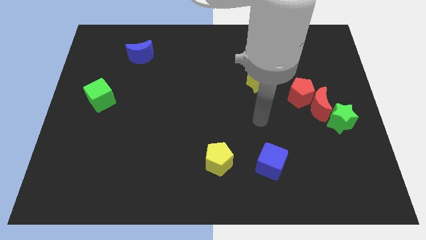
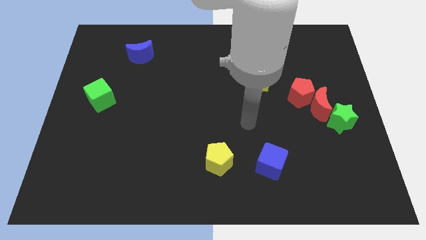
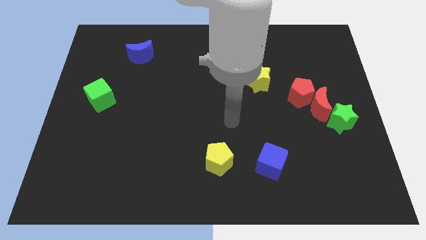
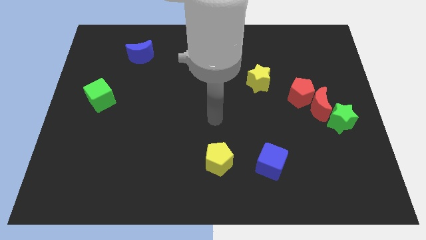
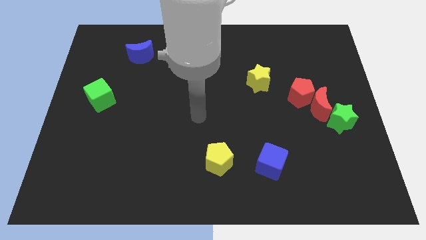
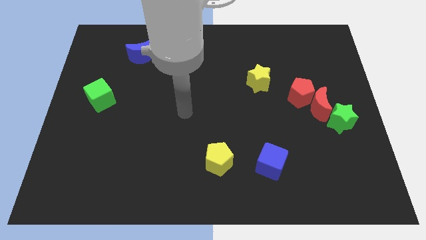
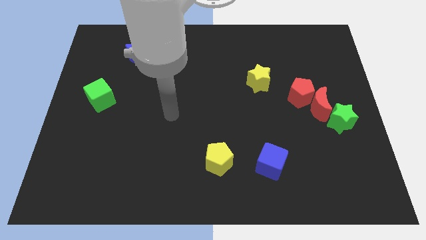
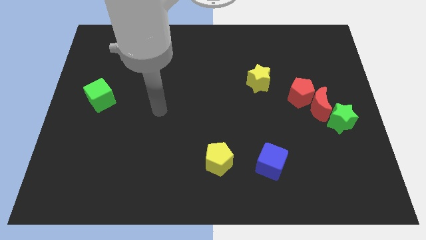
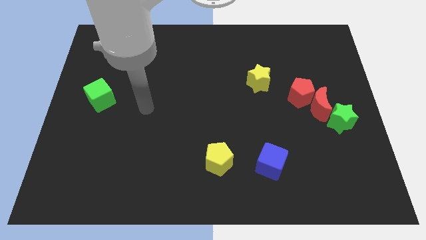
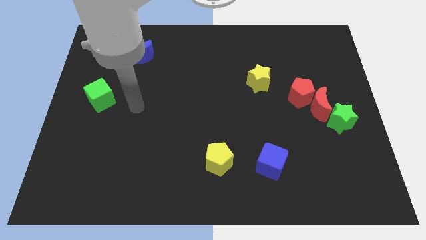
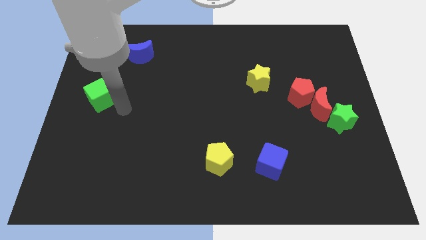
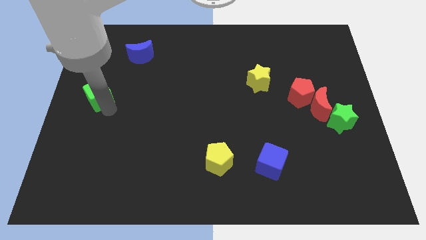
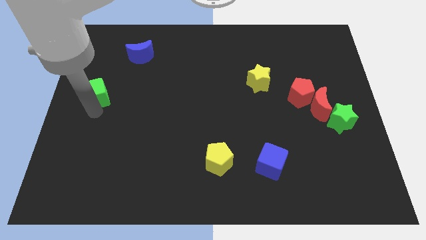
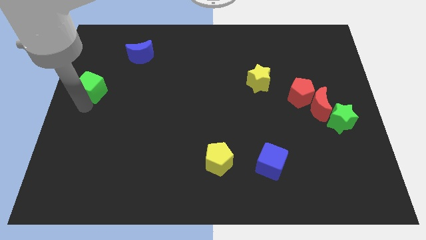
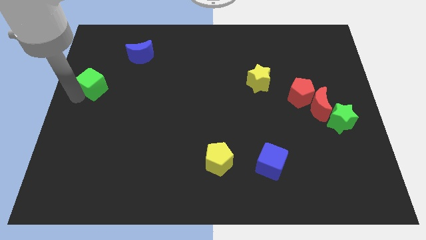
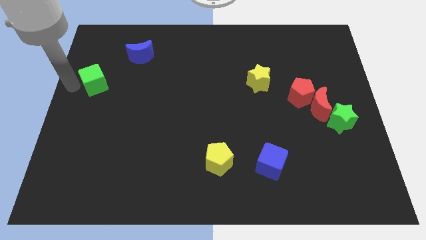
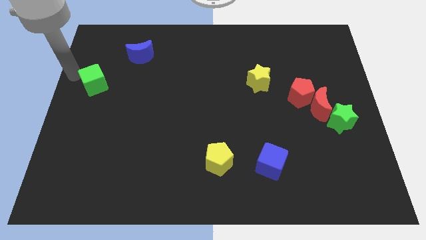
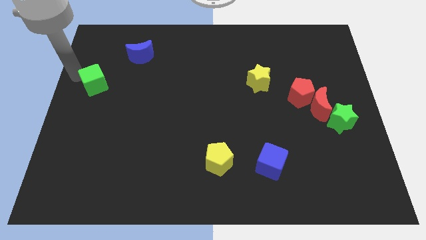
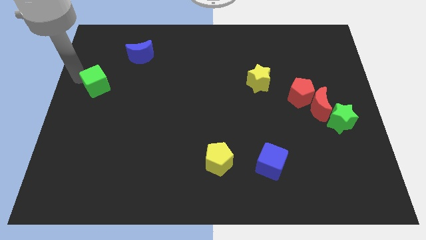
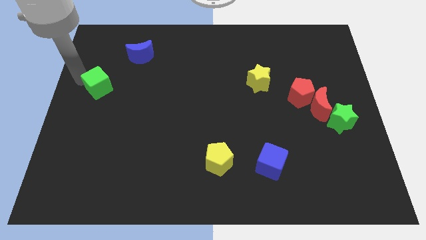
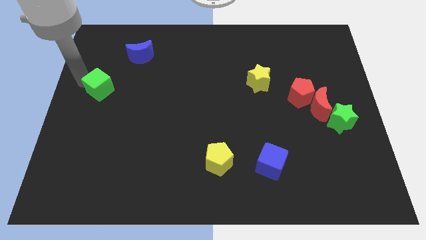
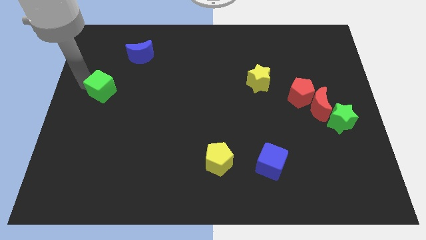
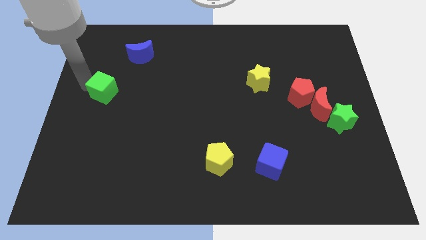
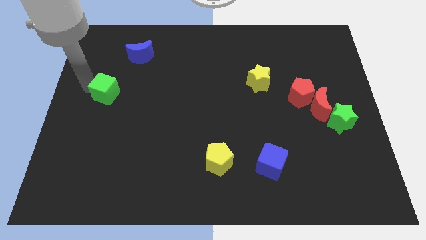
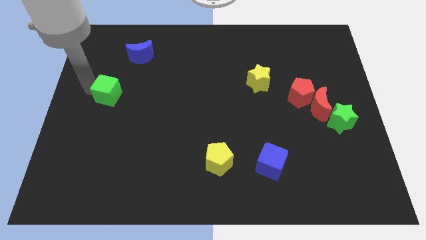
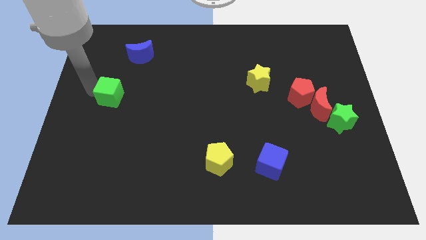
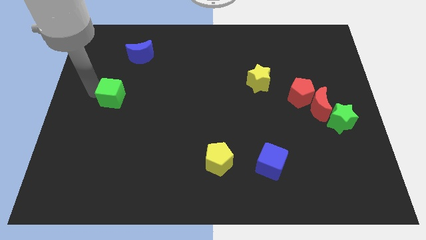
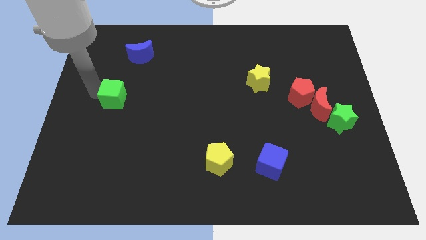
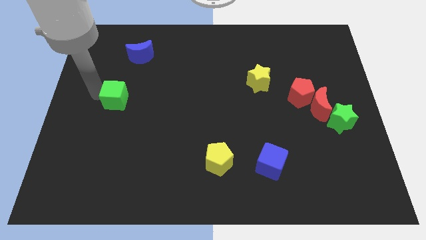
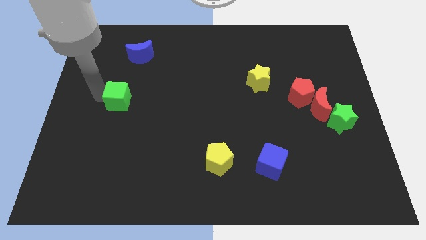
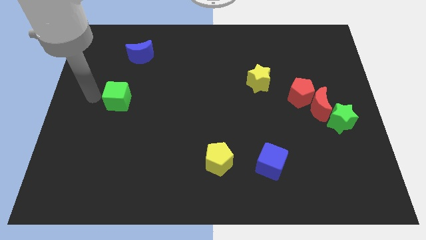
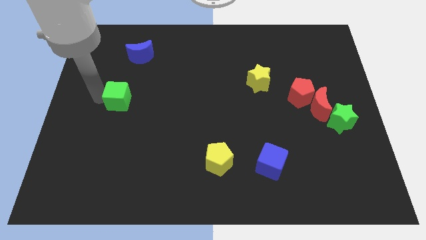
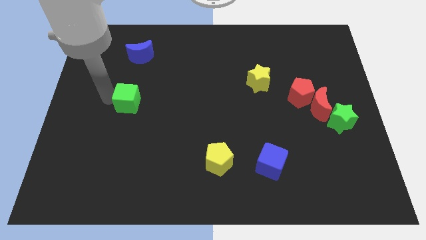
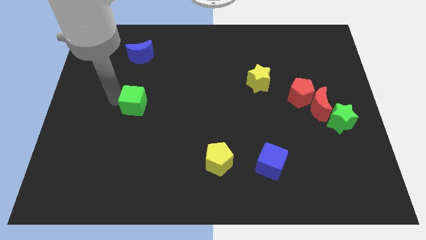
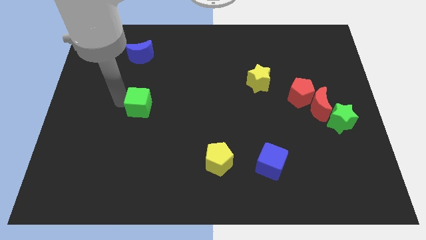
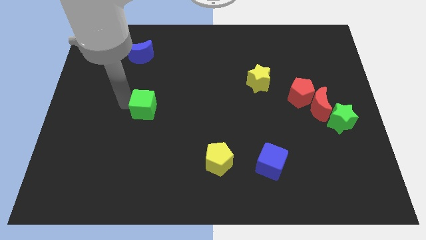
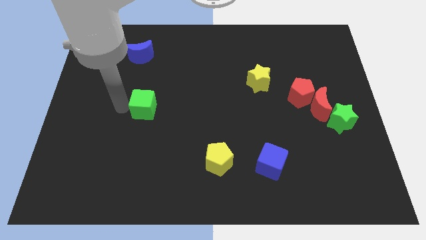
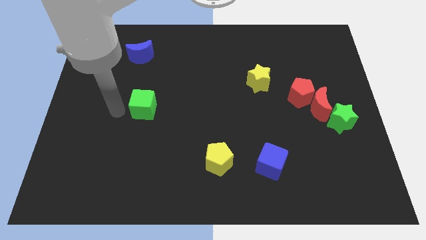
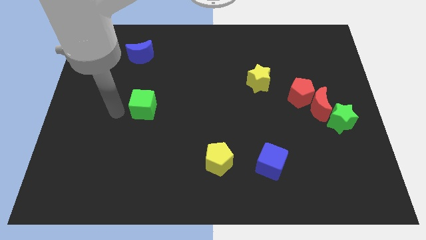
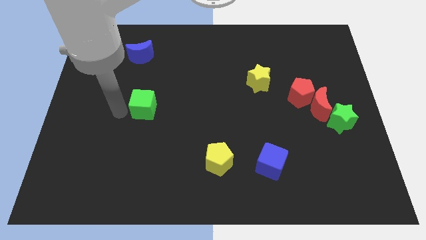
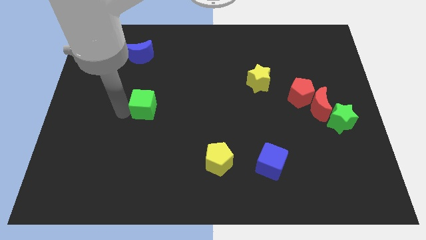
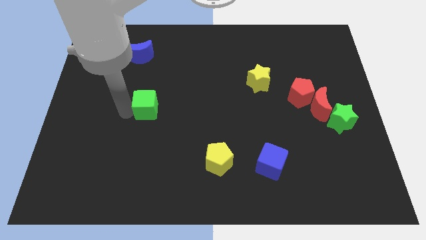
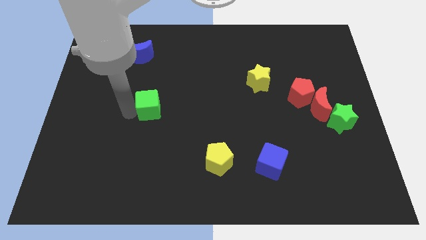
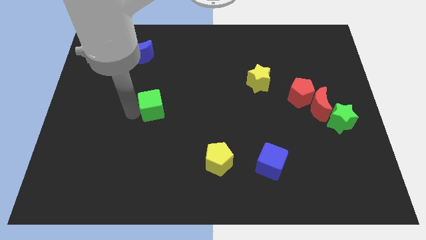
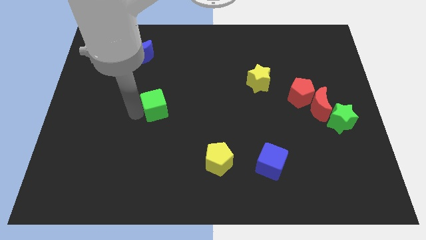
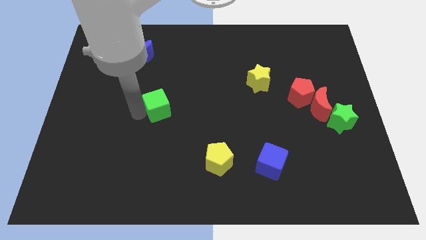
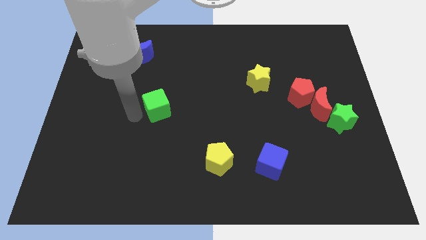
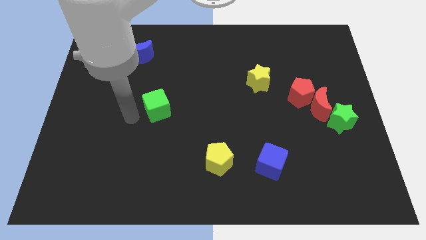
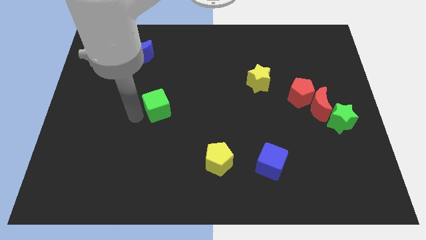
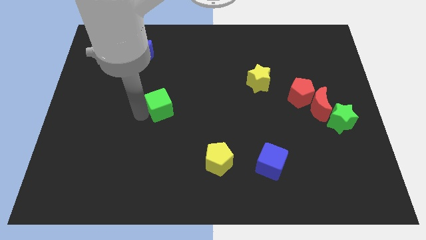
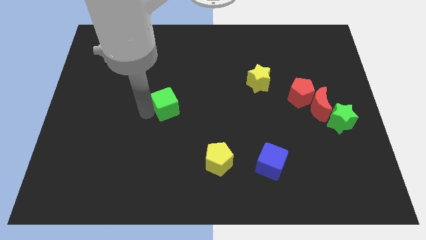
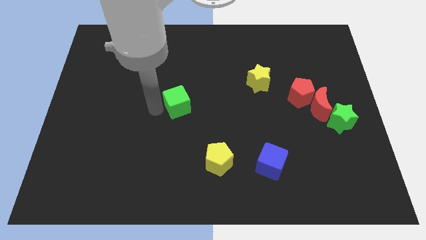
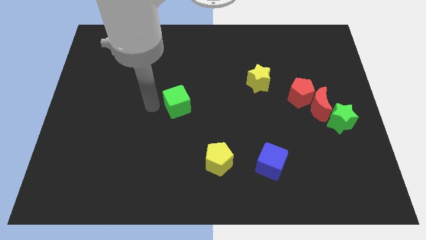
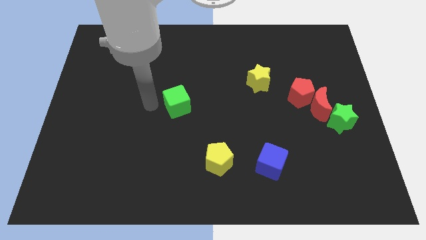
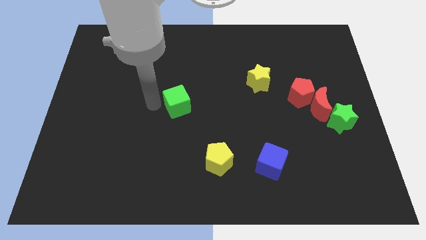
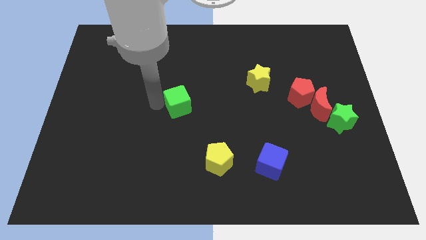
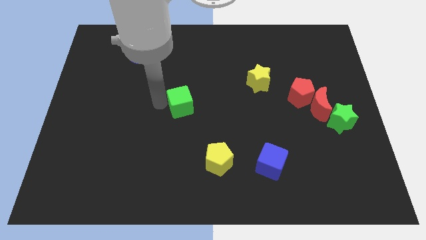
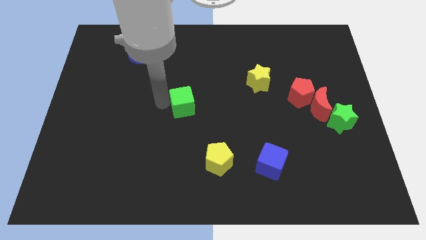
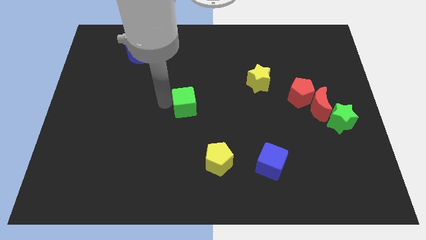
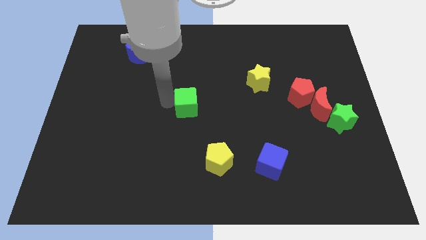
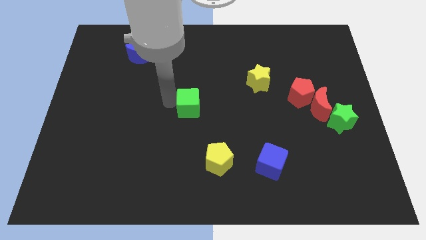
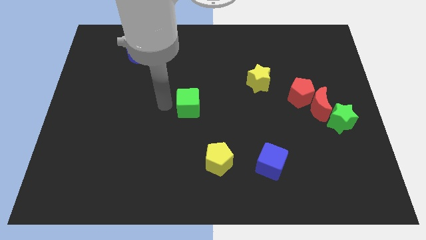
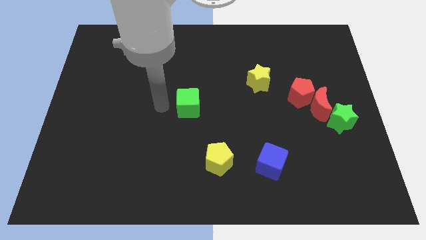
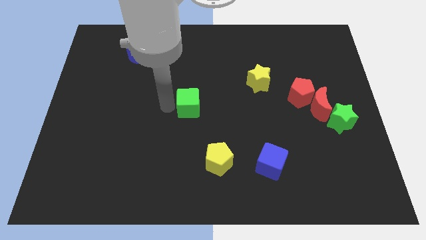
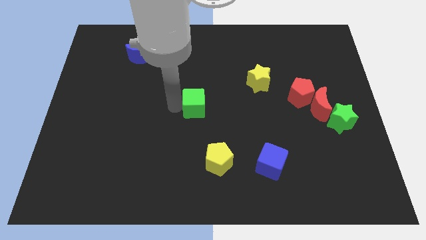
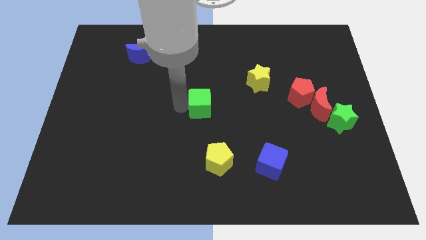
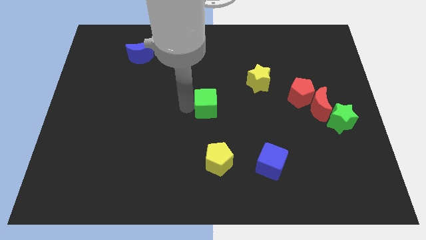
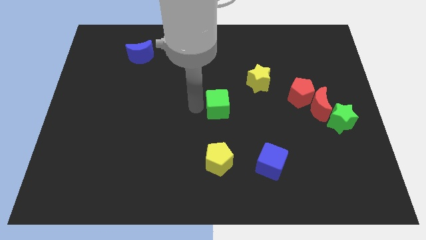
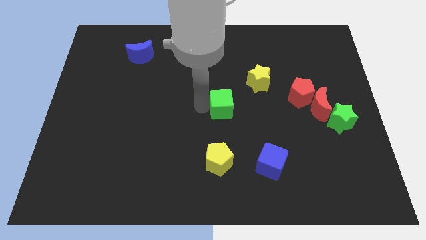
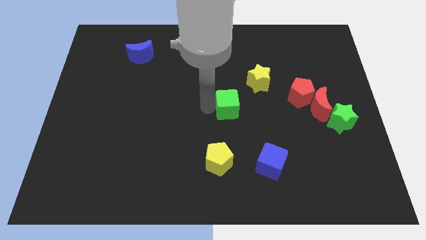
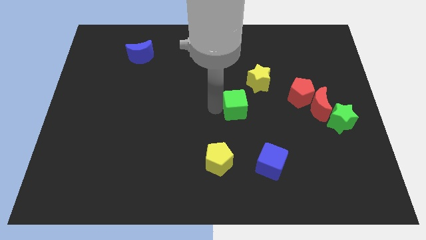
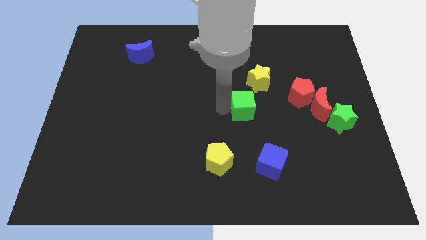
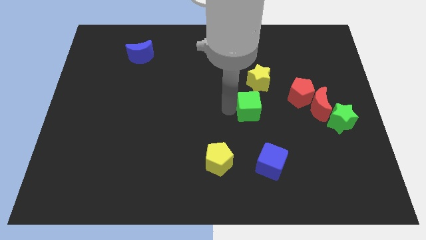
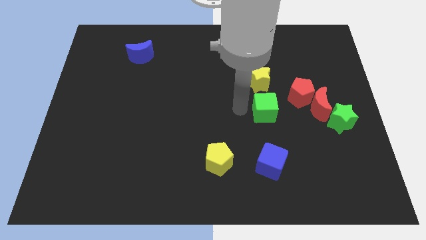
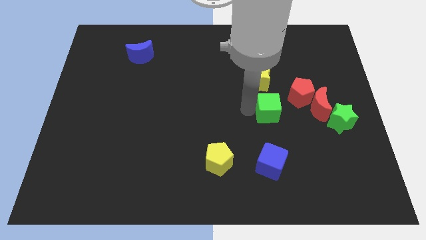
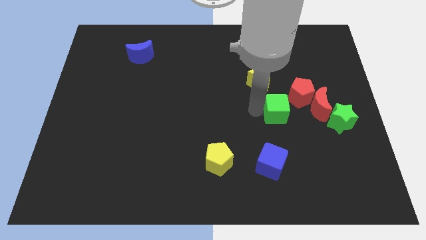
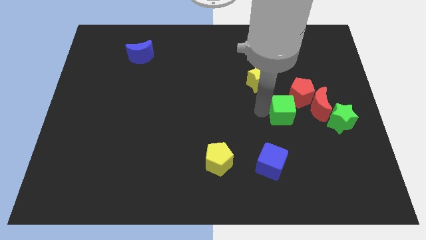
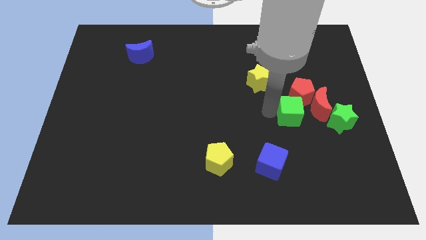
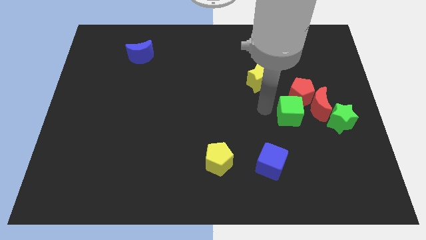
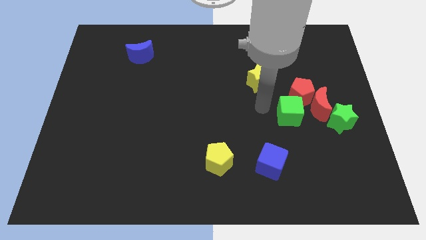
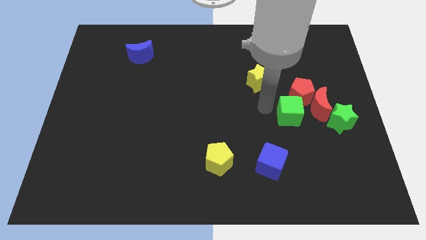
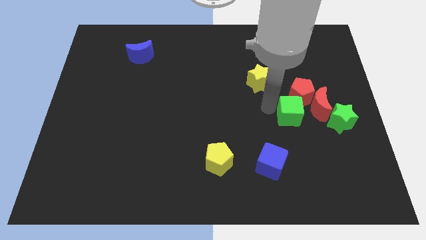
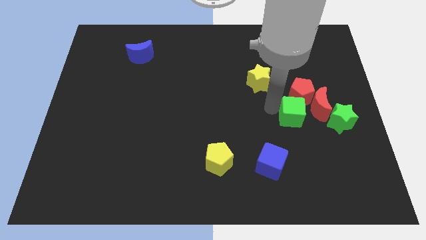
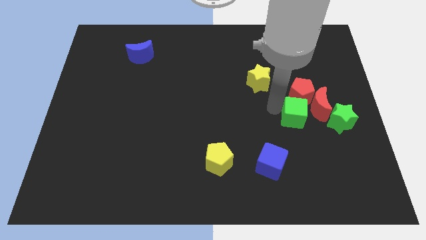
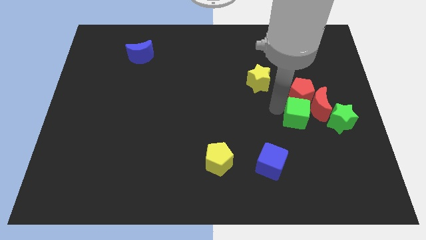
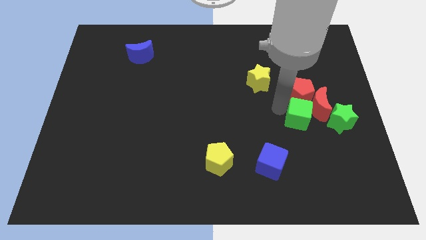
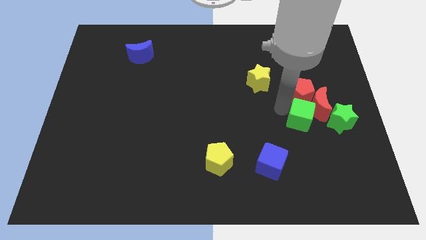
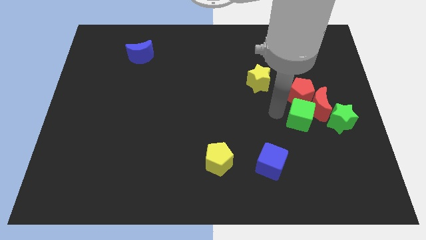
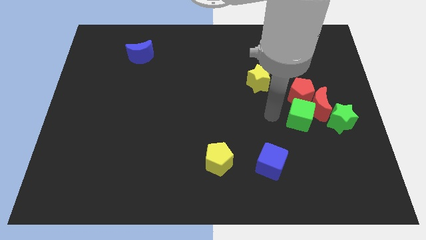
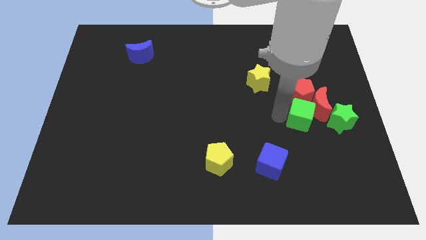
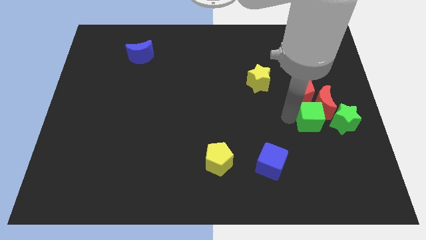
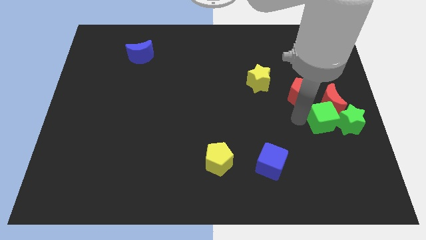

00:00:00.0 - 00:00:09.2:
push the green cube close to the green star
